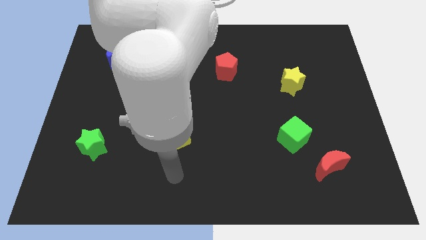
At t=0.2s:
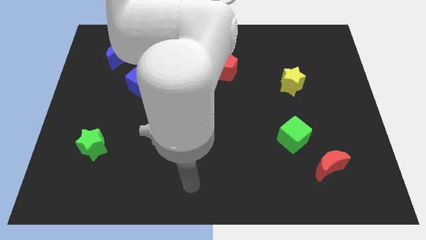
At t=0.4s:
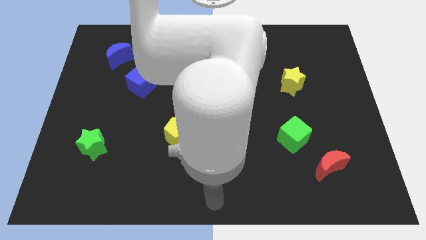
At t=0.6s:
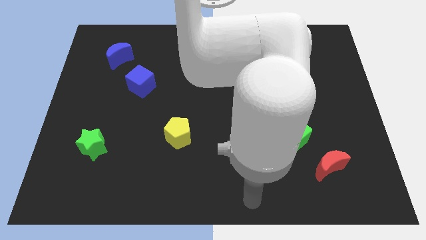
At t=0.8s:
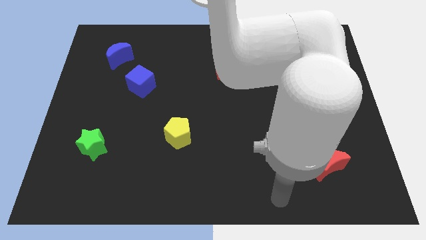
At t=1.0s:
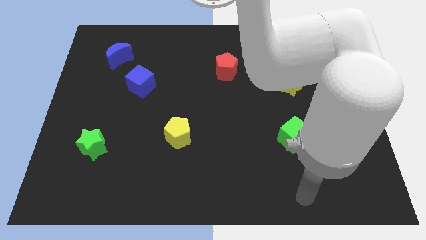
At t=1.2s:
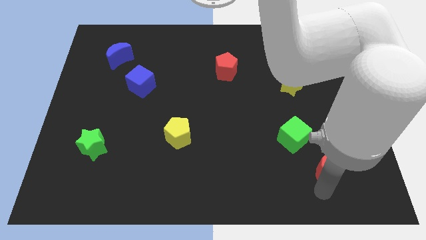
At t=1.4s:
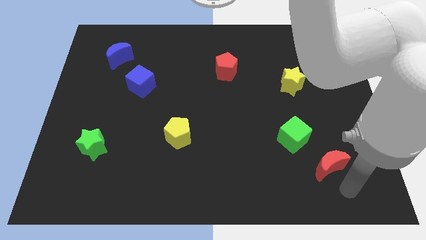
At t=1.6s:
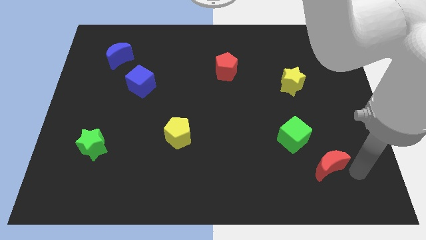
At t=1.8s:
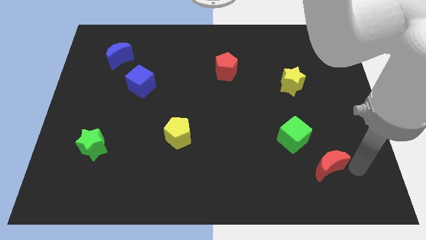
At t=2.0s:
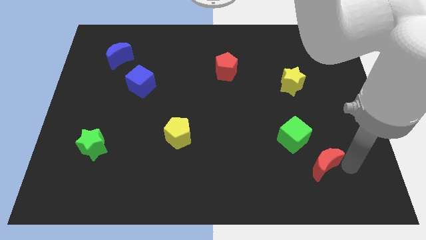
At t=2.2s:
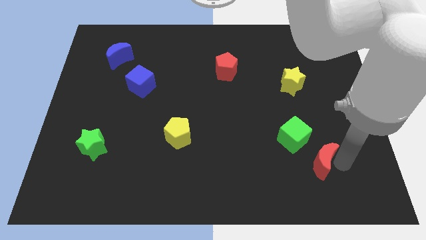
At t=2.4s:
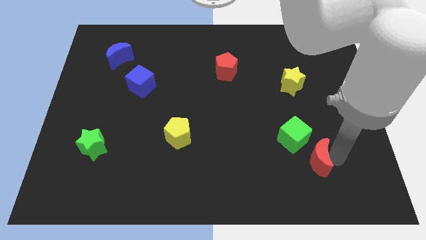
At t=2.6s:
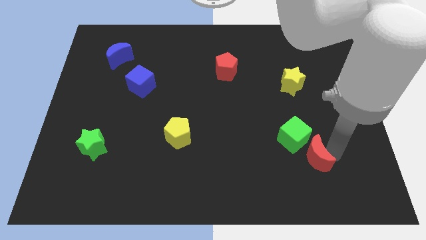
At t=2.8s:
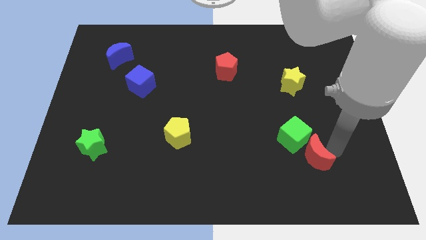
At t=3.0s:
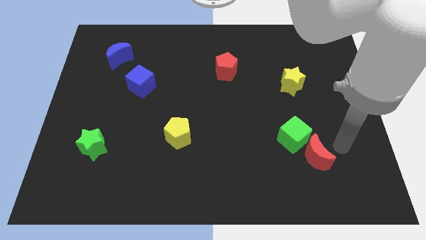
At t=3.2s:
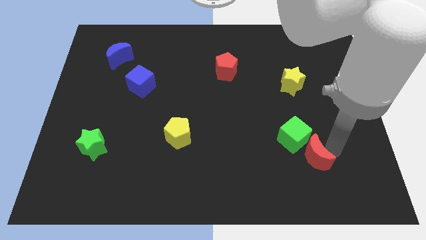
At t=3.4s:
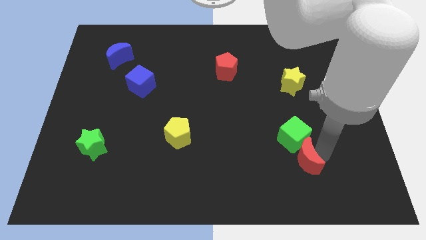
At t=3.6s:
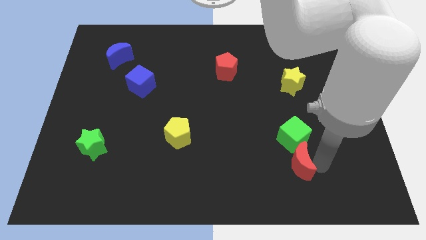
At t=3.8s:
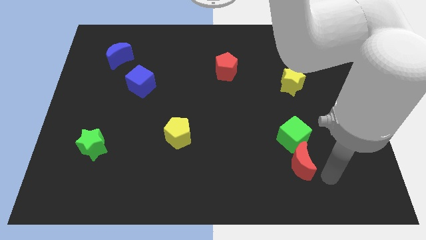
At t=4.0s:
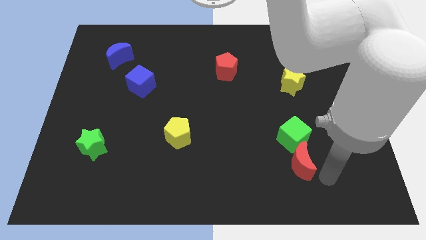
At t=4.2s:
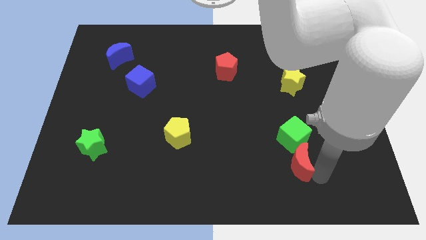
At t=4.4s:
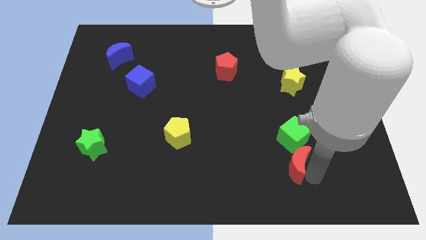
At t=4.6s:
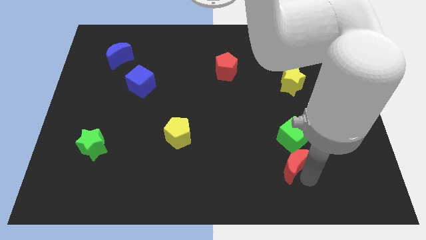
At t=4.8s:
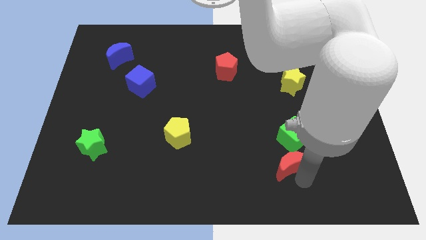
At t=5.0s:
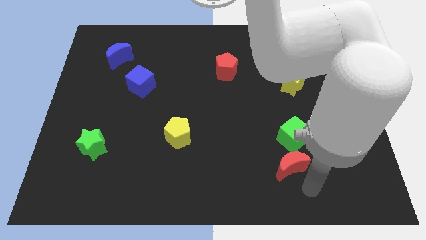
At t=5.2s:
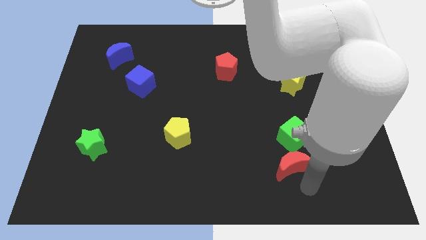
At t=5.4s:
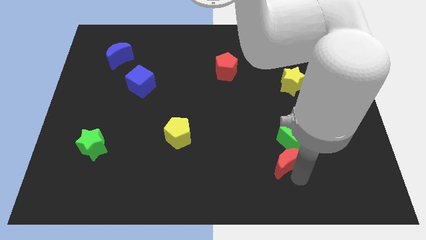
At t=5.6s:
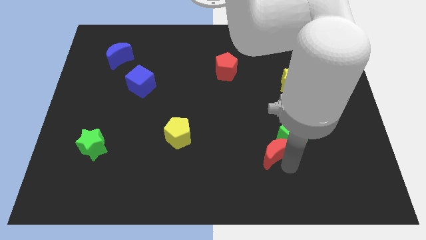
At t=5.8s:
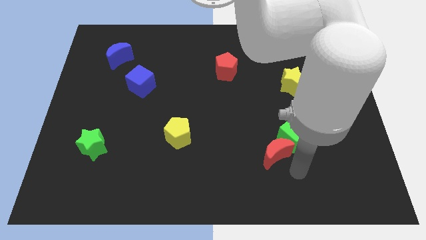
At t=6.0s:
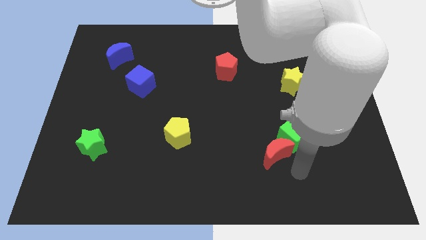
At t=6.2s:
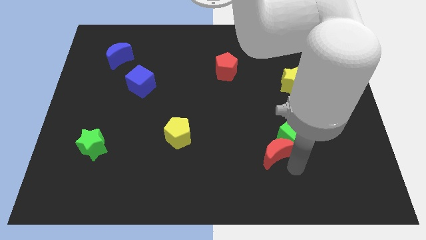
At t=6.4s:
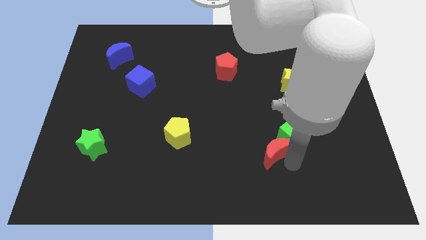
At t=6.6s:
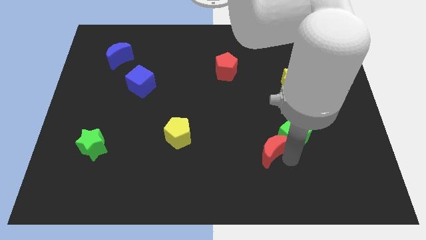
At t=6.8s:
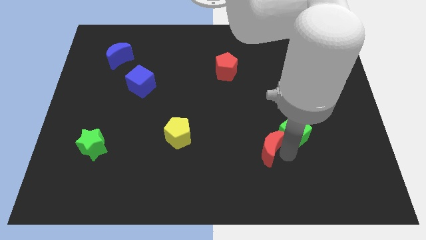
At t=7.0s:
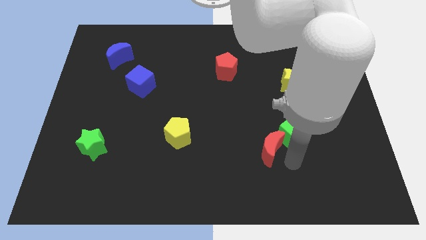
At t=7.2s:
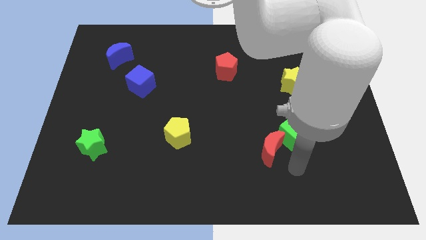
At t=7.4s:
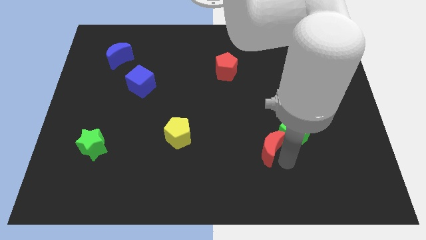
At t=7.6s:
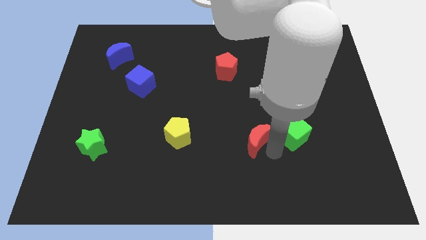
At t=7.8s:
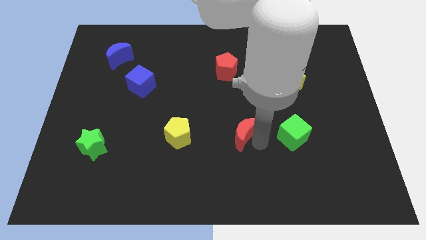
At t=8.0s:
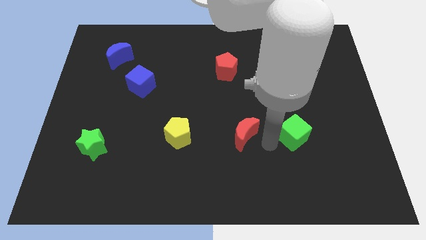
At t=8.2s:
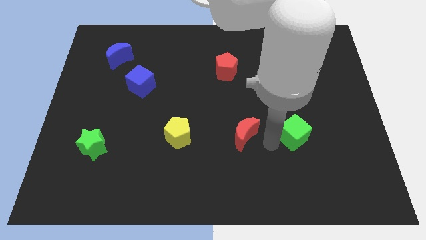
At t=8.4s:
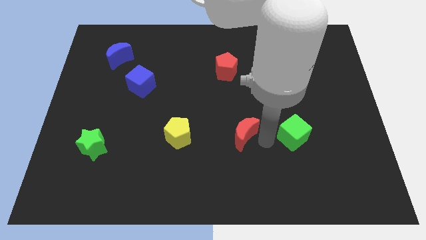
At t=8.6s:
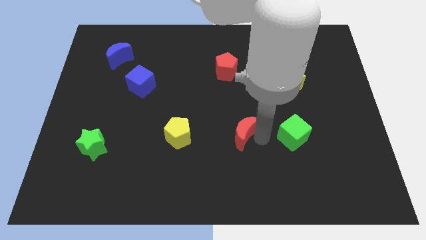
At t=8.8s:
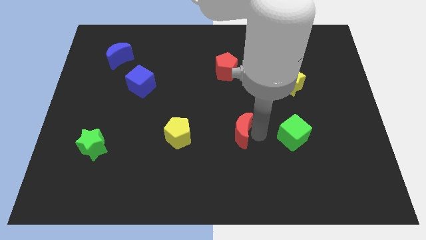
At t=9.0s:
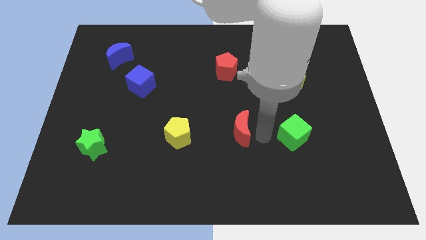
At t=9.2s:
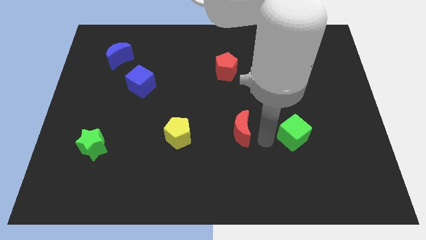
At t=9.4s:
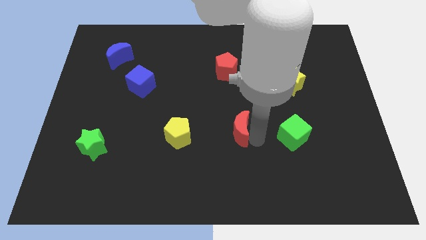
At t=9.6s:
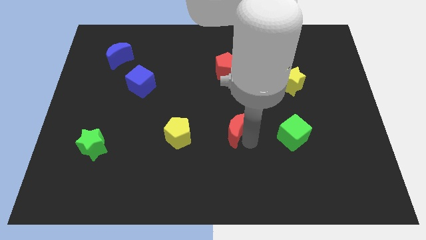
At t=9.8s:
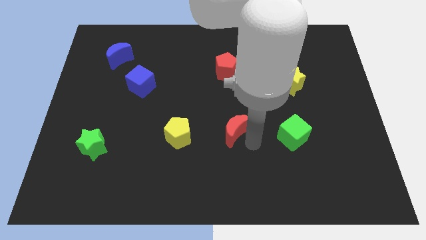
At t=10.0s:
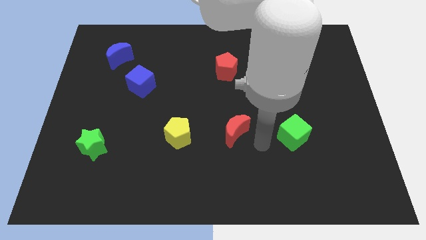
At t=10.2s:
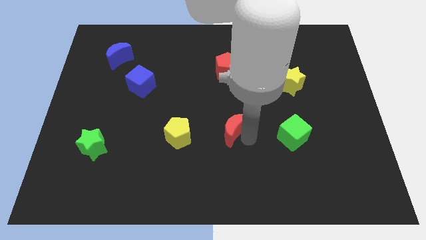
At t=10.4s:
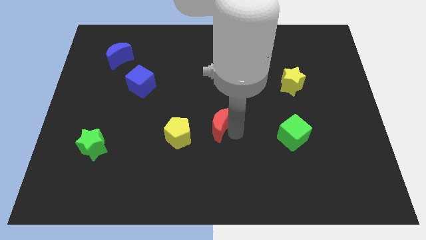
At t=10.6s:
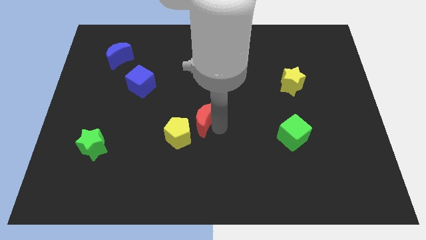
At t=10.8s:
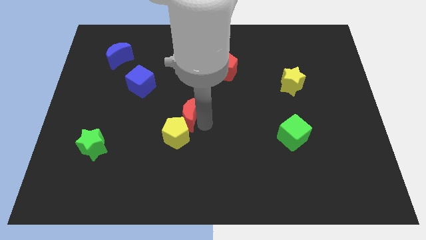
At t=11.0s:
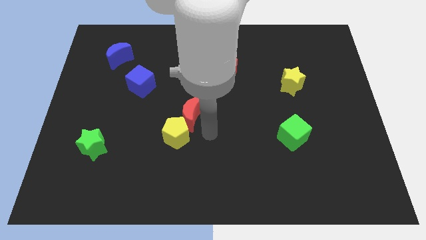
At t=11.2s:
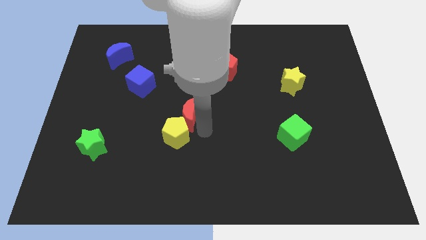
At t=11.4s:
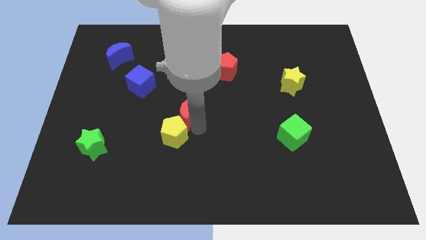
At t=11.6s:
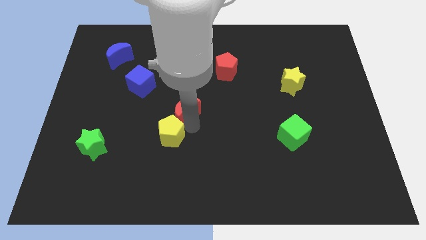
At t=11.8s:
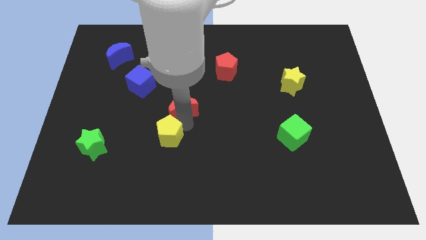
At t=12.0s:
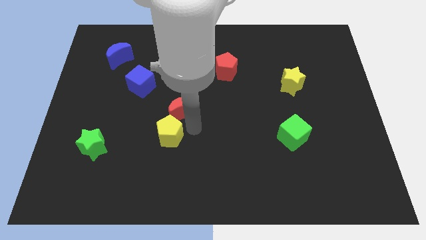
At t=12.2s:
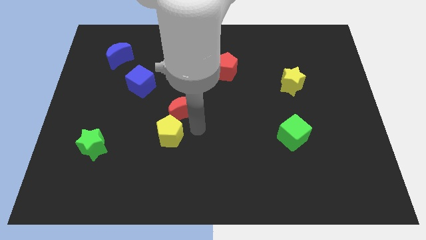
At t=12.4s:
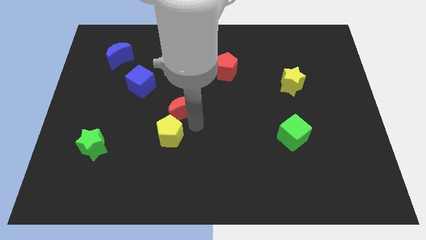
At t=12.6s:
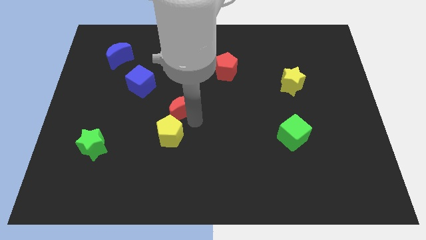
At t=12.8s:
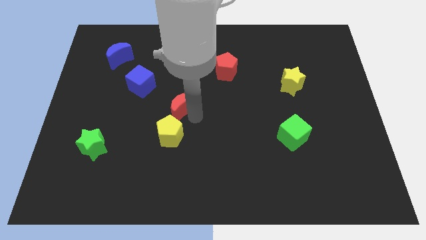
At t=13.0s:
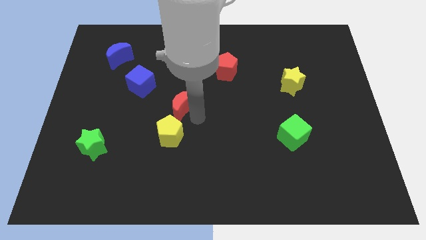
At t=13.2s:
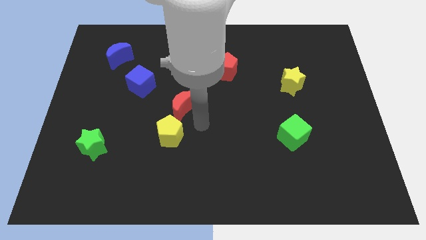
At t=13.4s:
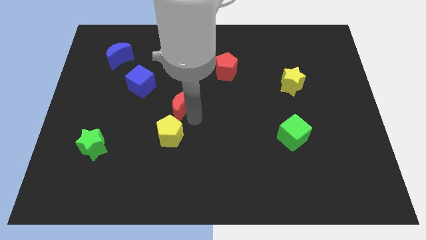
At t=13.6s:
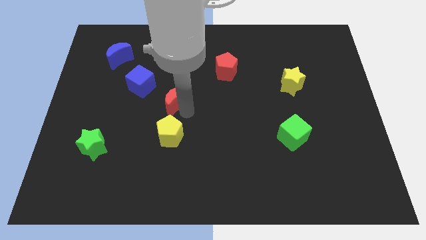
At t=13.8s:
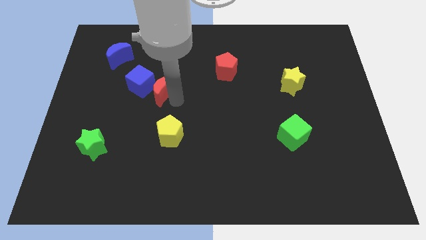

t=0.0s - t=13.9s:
slide the red moon towards the blue cube
